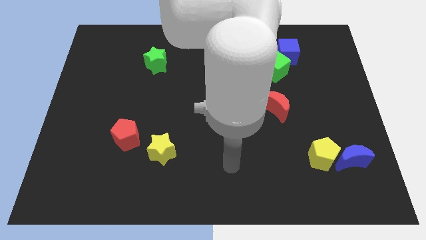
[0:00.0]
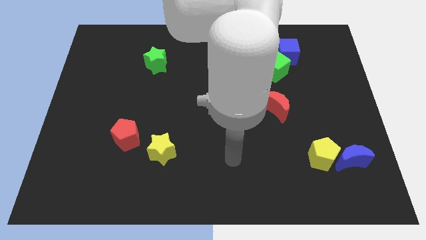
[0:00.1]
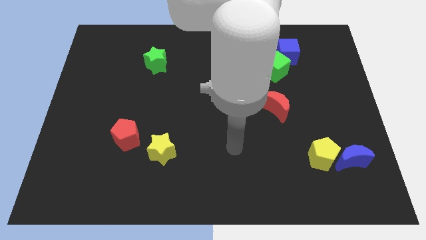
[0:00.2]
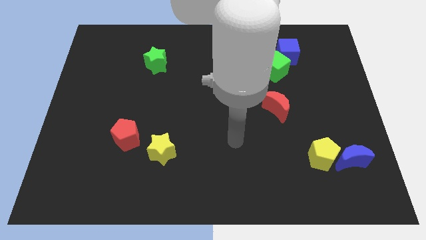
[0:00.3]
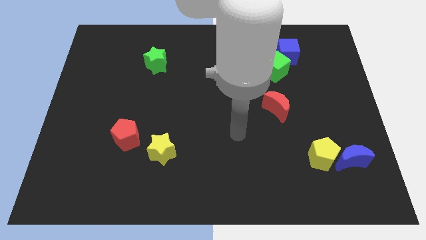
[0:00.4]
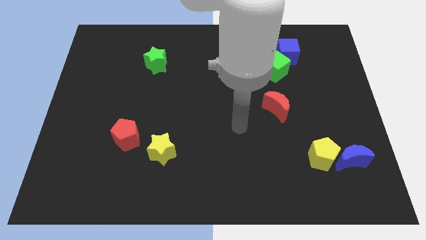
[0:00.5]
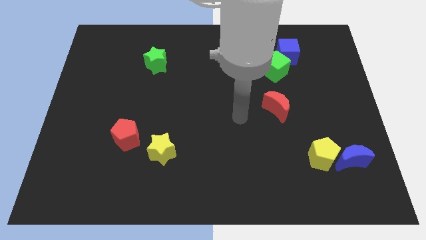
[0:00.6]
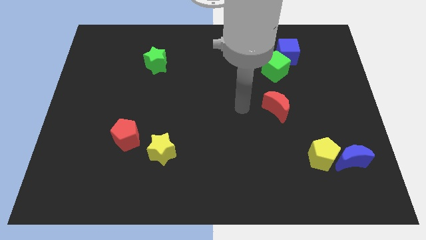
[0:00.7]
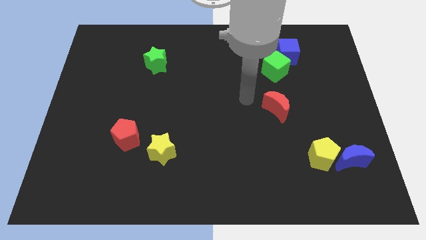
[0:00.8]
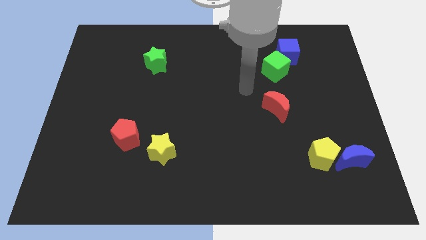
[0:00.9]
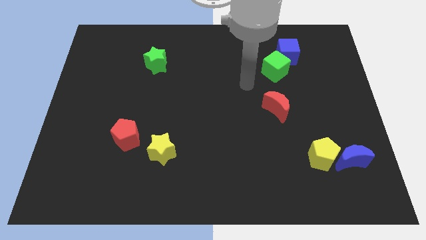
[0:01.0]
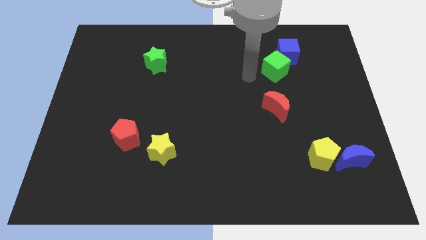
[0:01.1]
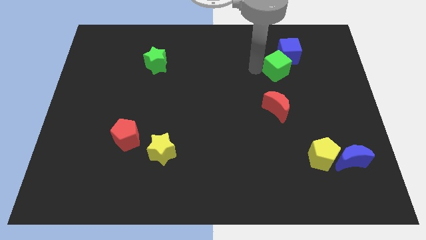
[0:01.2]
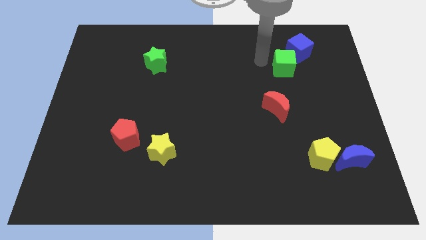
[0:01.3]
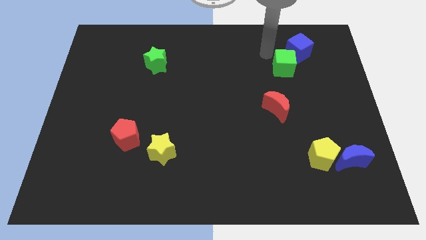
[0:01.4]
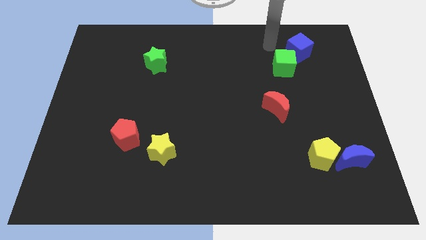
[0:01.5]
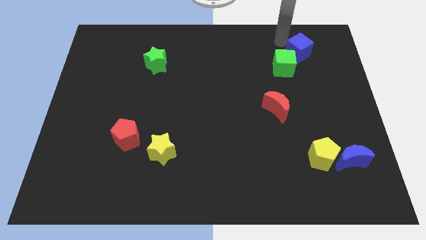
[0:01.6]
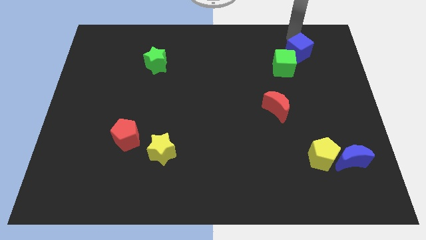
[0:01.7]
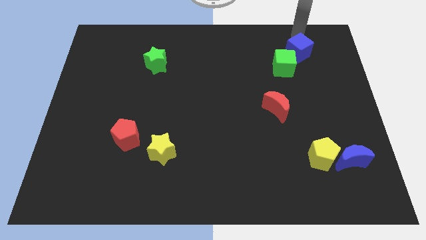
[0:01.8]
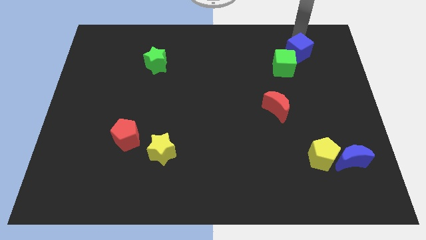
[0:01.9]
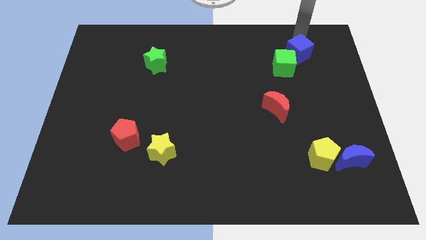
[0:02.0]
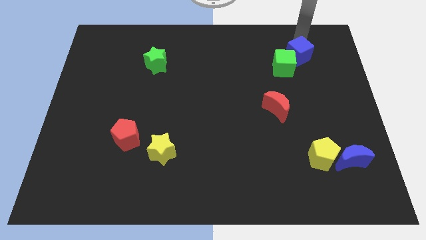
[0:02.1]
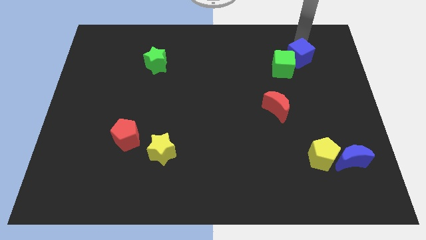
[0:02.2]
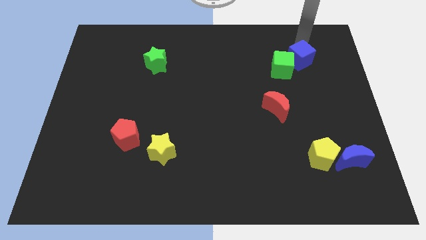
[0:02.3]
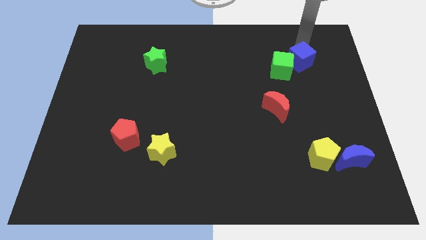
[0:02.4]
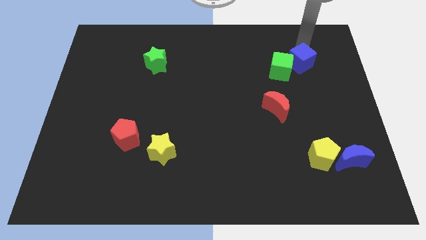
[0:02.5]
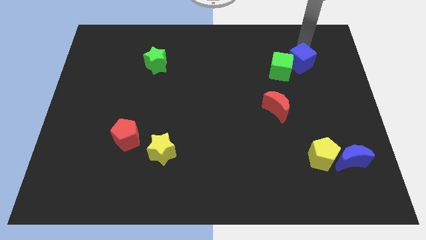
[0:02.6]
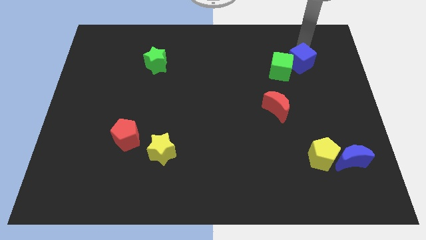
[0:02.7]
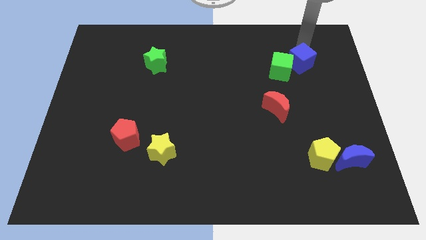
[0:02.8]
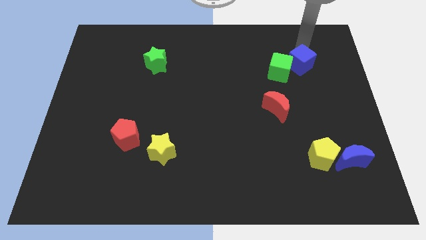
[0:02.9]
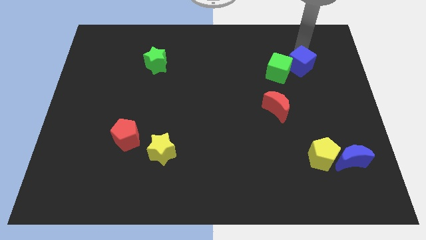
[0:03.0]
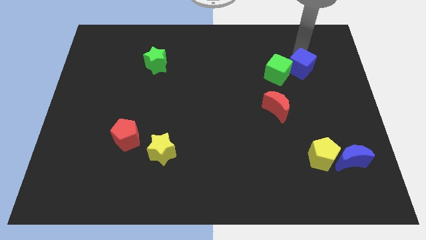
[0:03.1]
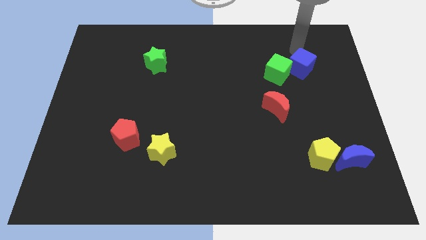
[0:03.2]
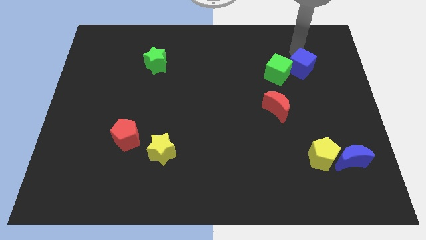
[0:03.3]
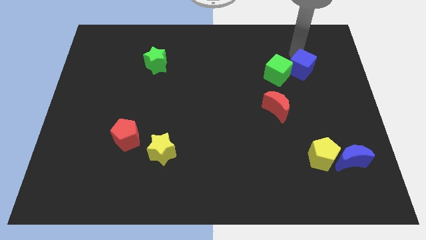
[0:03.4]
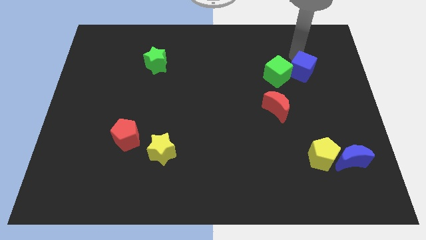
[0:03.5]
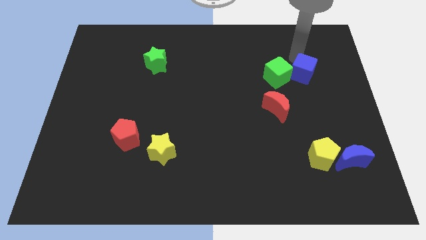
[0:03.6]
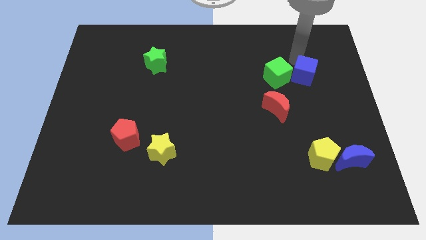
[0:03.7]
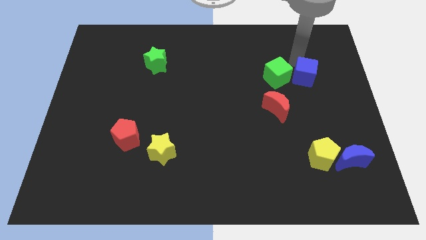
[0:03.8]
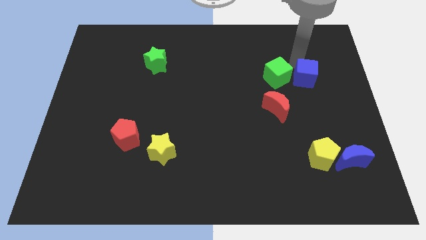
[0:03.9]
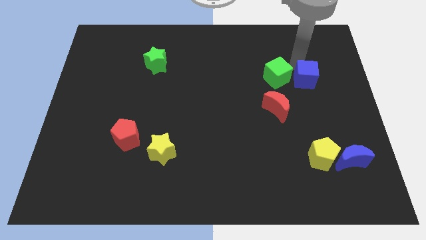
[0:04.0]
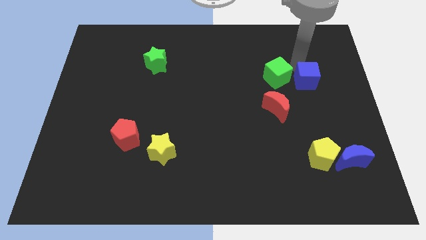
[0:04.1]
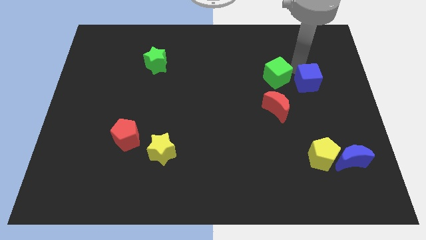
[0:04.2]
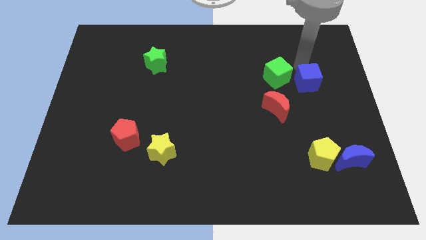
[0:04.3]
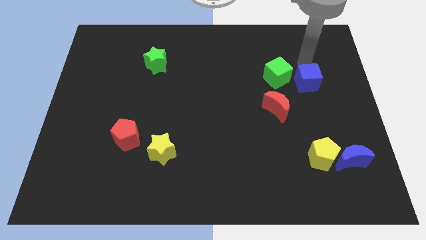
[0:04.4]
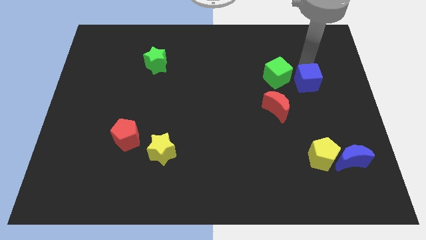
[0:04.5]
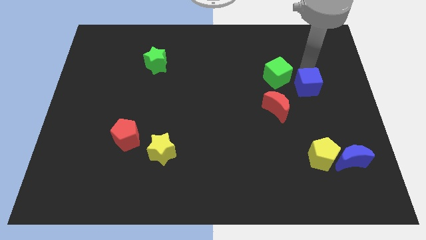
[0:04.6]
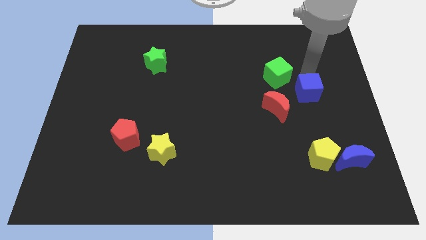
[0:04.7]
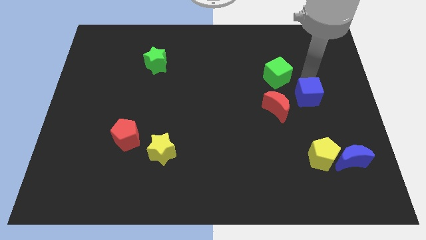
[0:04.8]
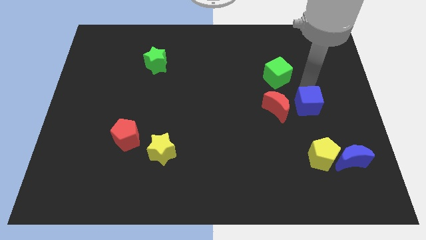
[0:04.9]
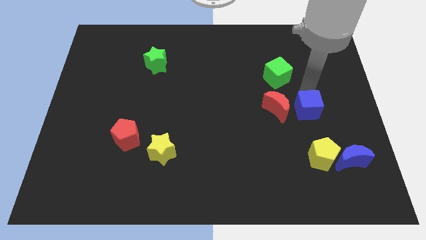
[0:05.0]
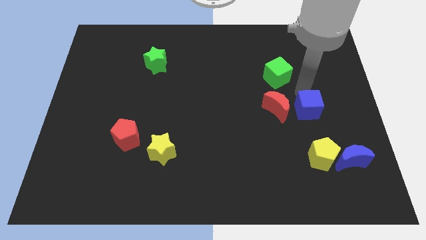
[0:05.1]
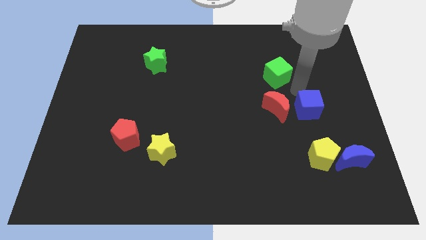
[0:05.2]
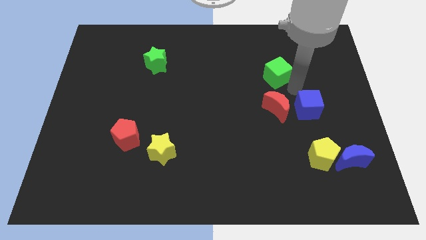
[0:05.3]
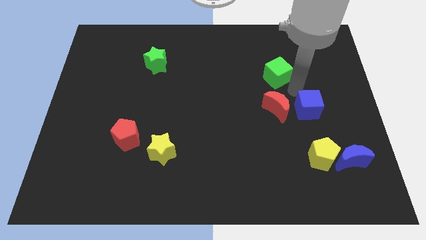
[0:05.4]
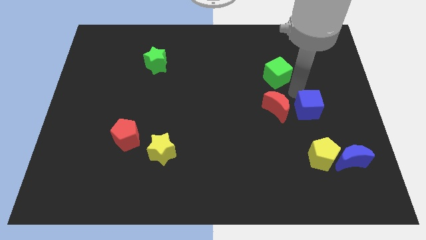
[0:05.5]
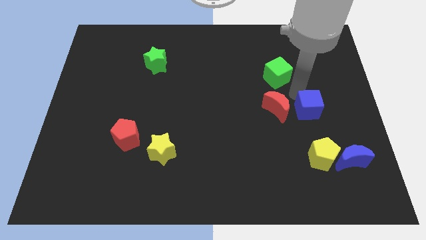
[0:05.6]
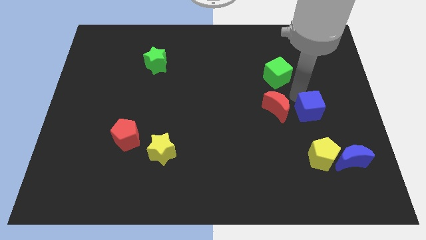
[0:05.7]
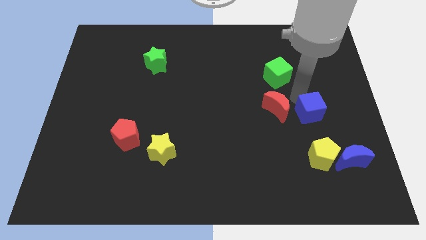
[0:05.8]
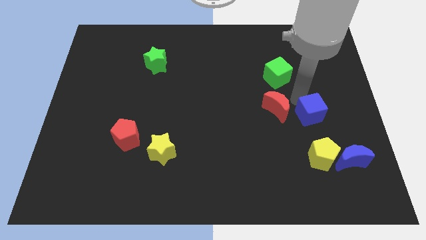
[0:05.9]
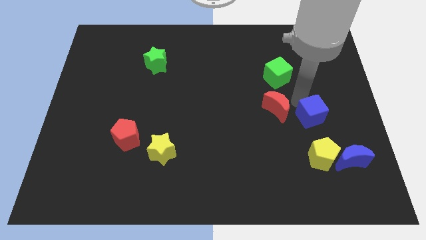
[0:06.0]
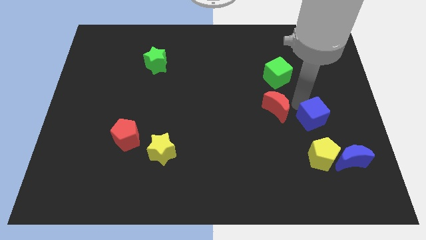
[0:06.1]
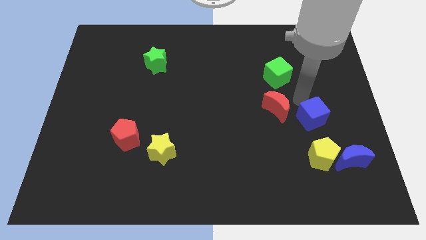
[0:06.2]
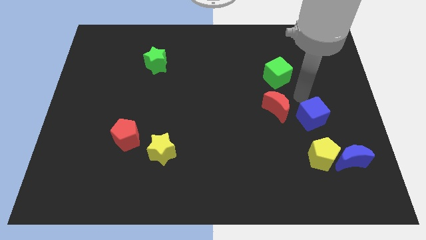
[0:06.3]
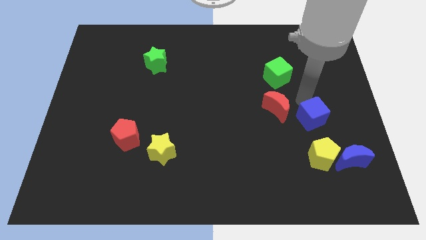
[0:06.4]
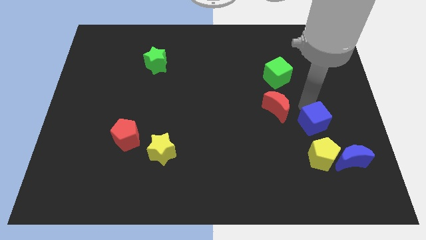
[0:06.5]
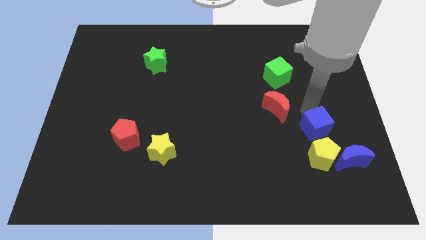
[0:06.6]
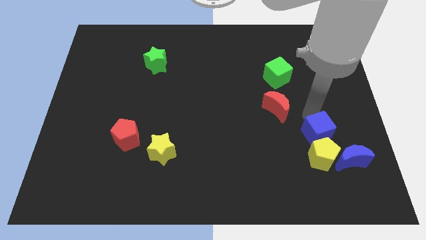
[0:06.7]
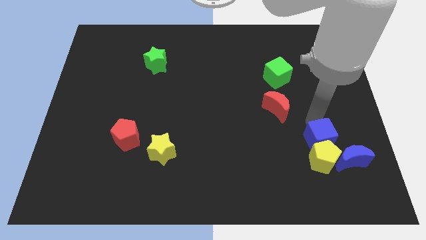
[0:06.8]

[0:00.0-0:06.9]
slide the blue cube to the yellow pentagon
